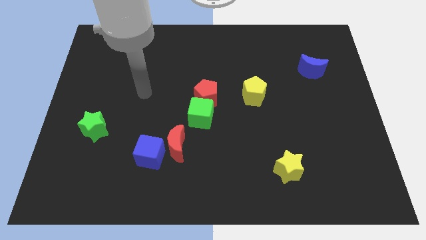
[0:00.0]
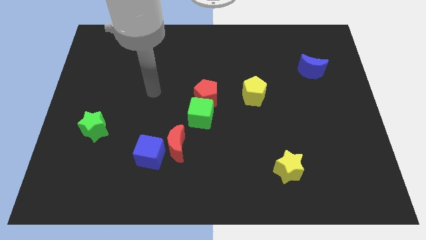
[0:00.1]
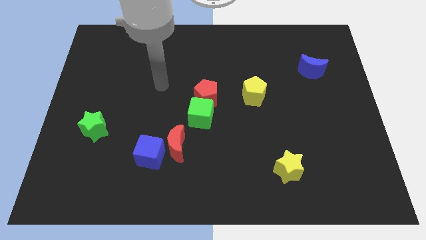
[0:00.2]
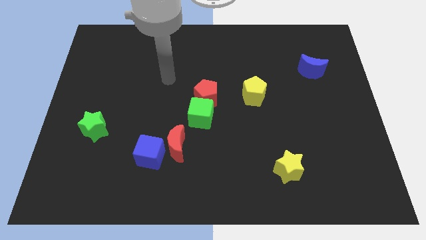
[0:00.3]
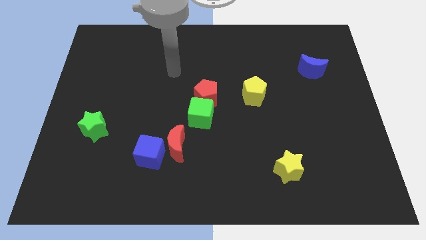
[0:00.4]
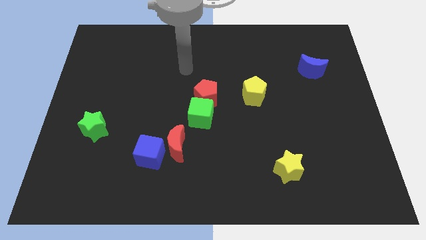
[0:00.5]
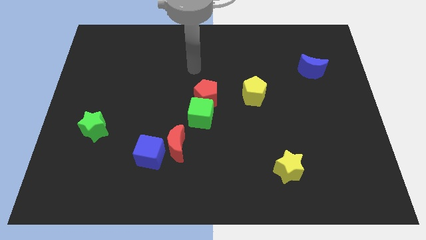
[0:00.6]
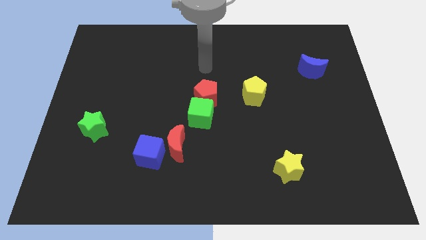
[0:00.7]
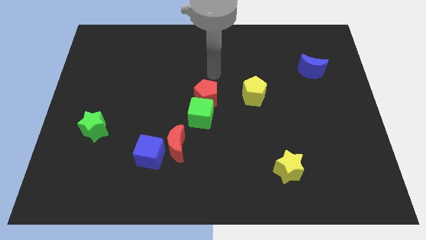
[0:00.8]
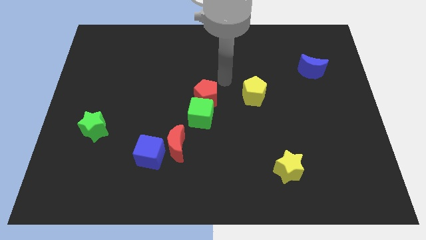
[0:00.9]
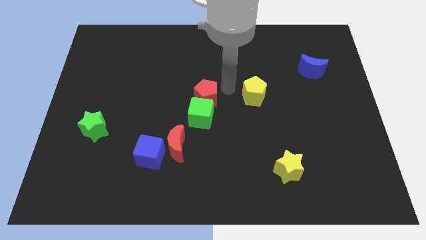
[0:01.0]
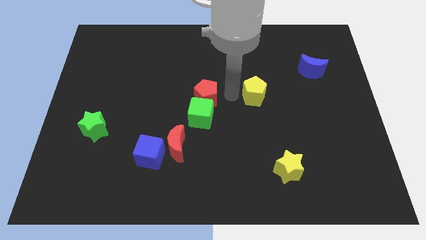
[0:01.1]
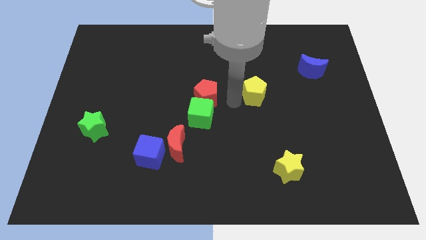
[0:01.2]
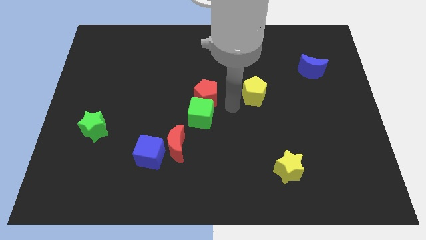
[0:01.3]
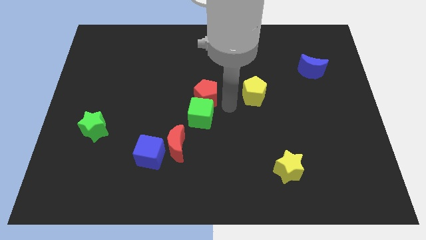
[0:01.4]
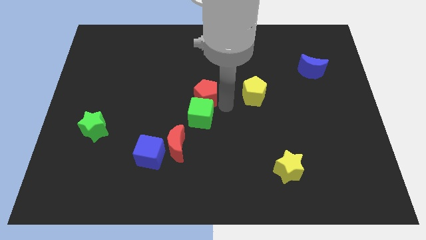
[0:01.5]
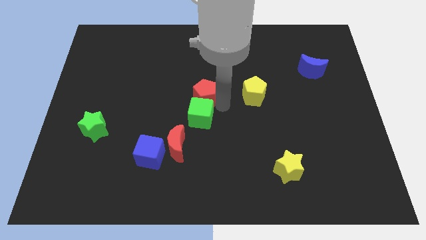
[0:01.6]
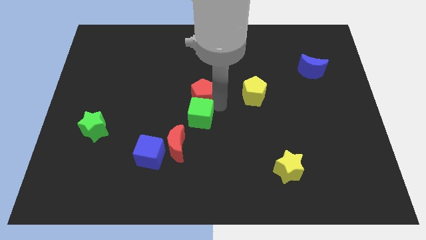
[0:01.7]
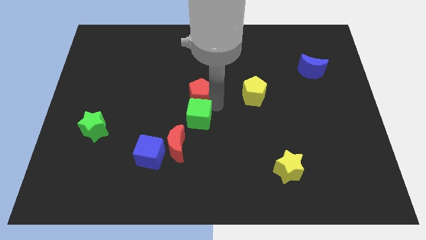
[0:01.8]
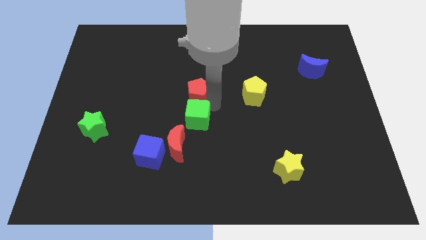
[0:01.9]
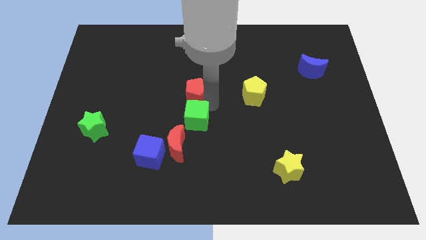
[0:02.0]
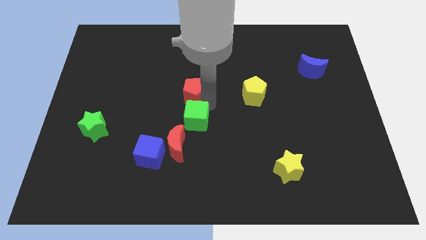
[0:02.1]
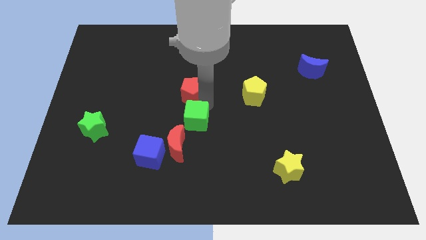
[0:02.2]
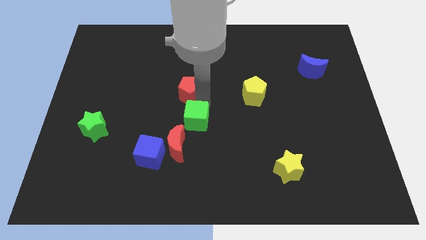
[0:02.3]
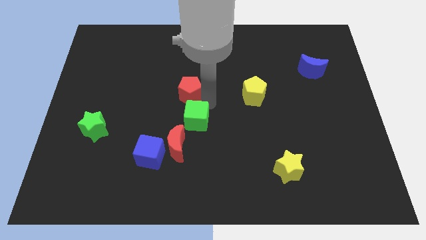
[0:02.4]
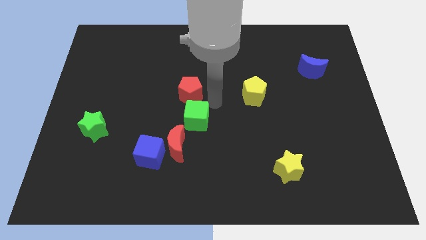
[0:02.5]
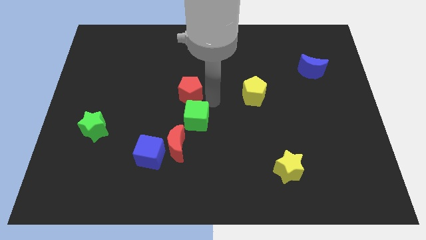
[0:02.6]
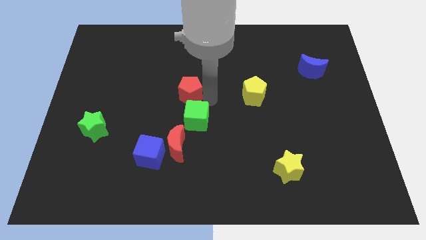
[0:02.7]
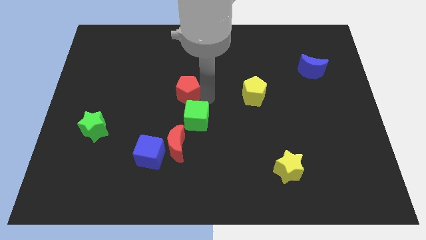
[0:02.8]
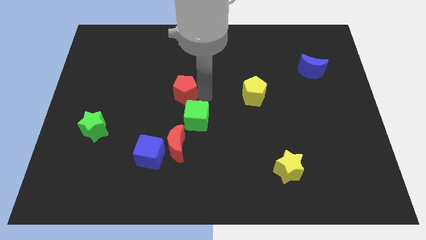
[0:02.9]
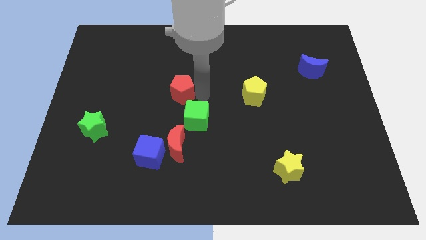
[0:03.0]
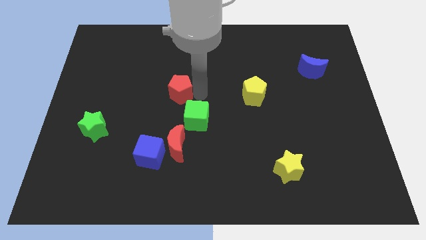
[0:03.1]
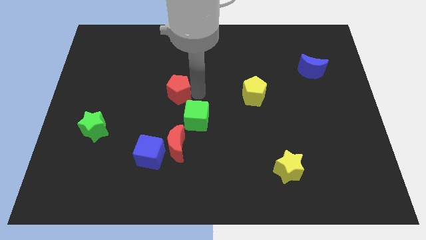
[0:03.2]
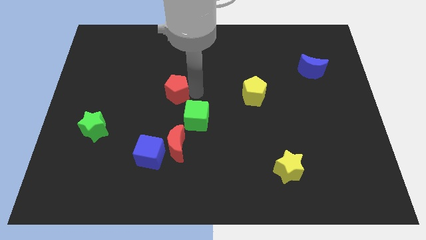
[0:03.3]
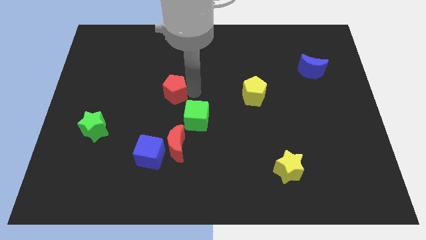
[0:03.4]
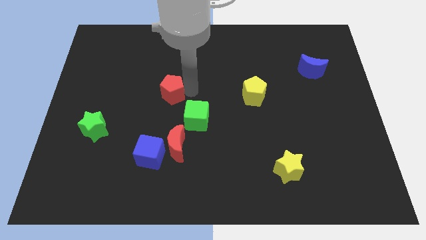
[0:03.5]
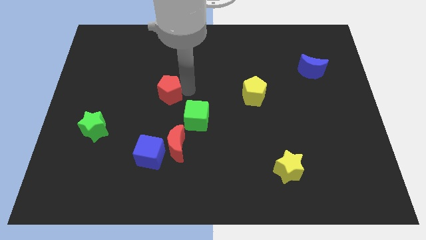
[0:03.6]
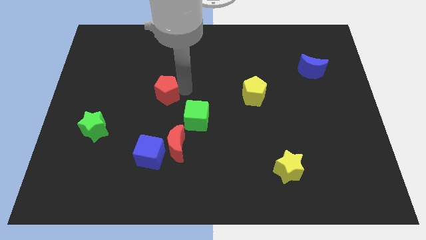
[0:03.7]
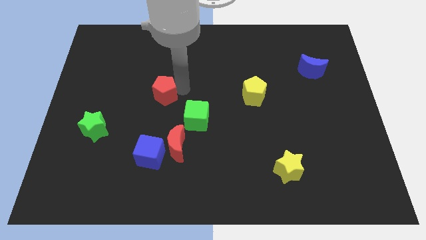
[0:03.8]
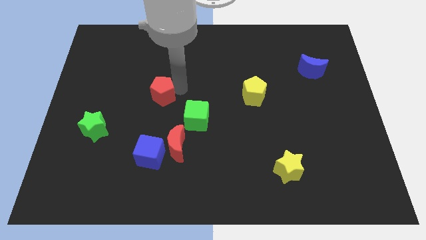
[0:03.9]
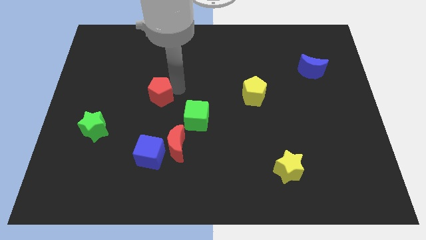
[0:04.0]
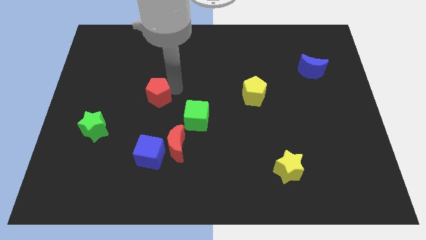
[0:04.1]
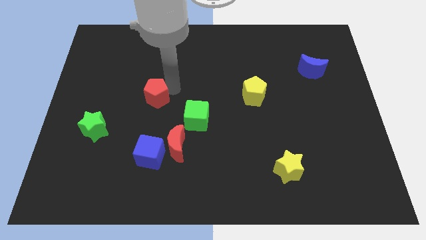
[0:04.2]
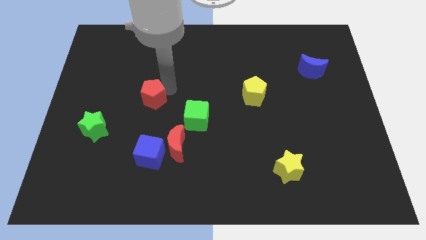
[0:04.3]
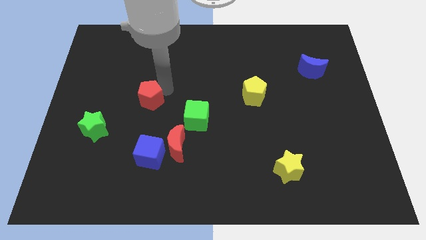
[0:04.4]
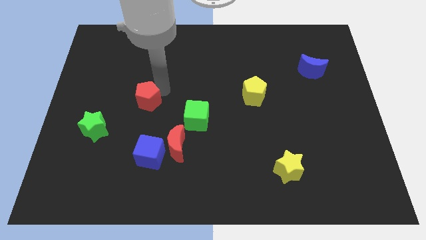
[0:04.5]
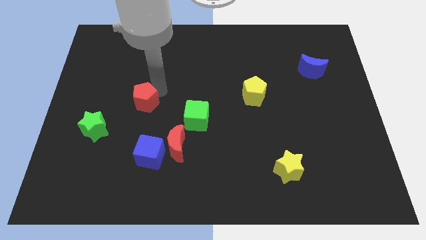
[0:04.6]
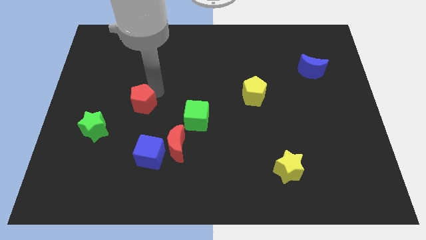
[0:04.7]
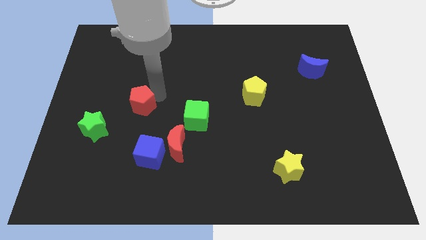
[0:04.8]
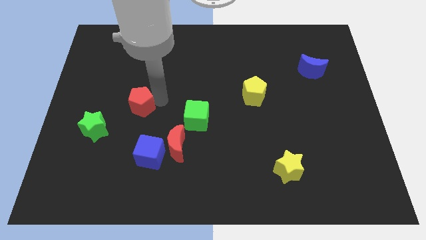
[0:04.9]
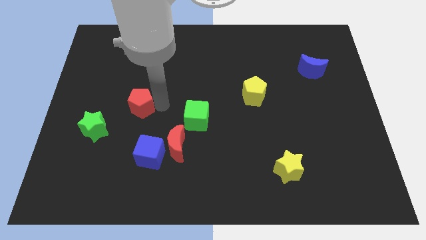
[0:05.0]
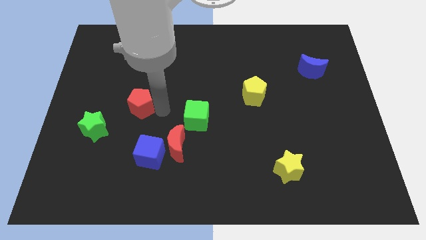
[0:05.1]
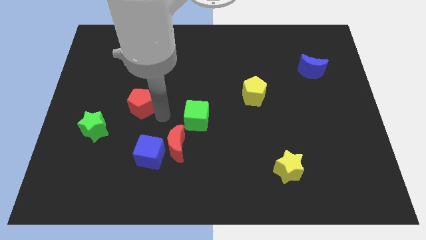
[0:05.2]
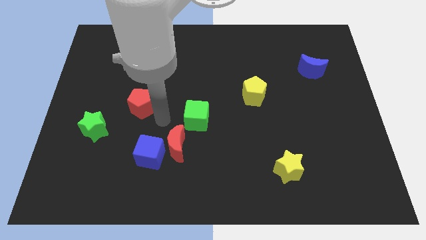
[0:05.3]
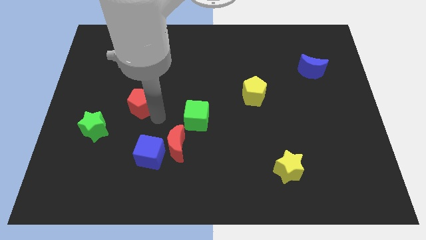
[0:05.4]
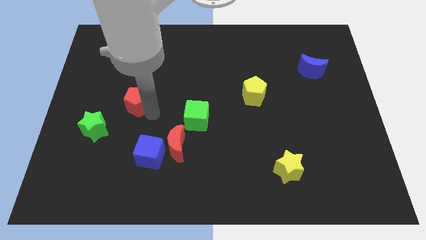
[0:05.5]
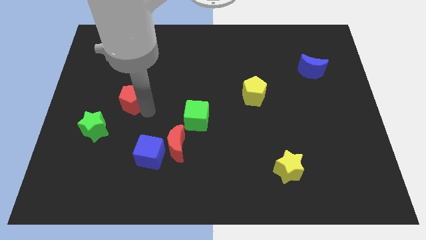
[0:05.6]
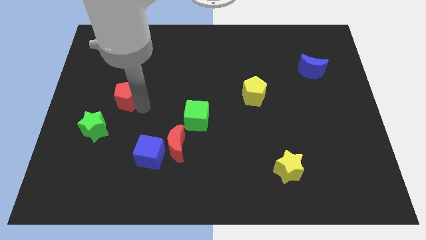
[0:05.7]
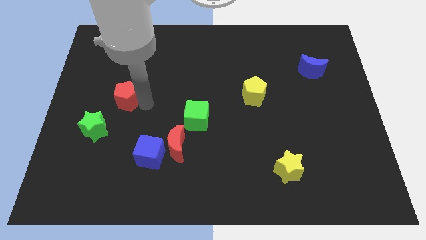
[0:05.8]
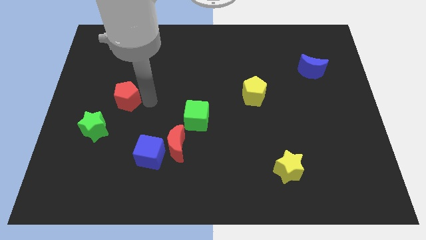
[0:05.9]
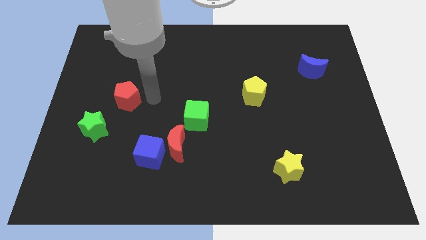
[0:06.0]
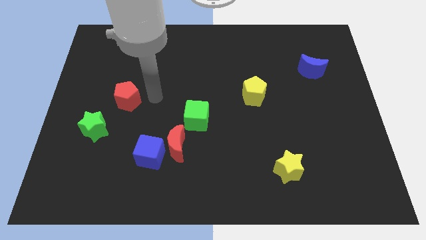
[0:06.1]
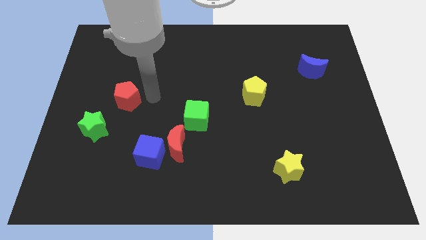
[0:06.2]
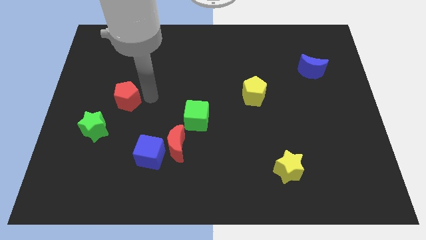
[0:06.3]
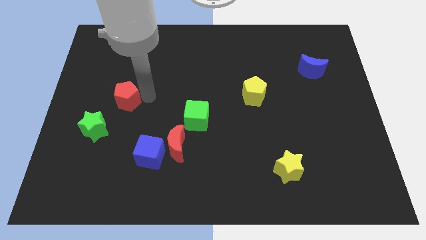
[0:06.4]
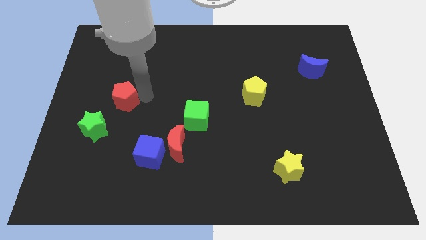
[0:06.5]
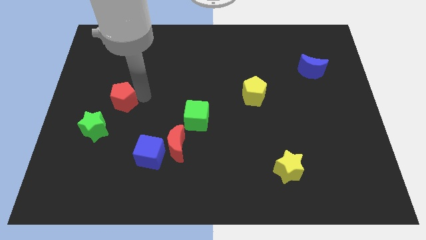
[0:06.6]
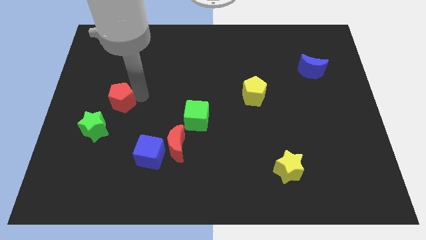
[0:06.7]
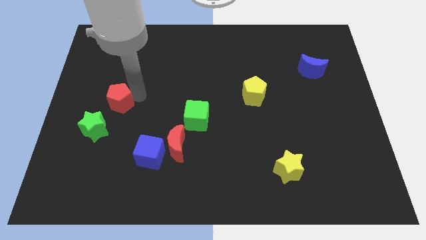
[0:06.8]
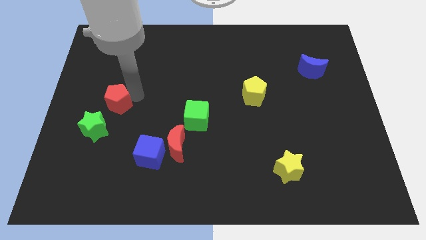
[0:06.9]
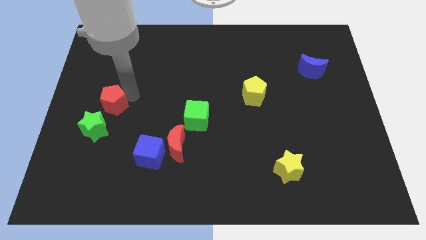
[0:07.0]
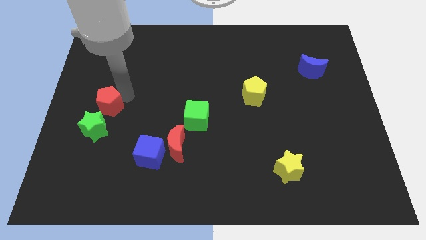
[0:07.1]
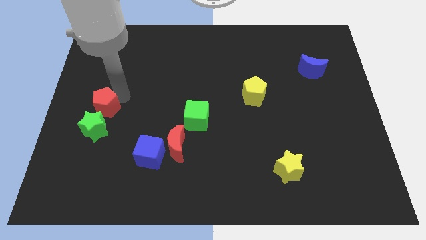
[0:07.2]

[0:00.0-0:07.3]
slide the red pentagon to the center left
